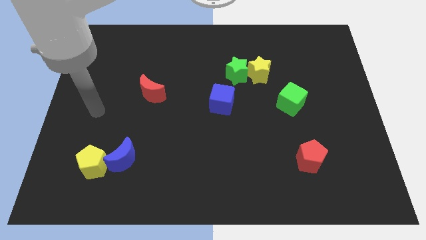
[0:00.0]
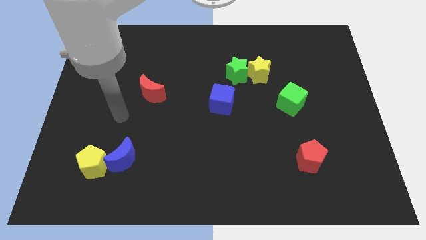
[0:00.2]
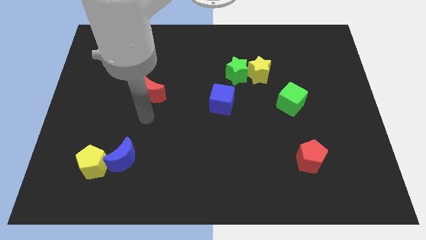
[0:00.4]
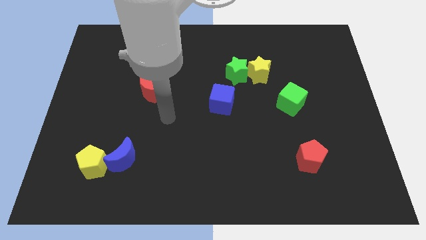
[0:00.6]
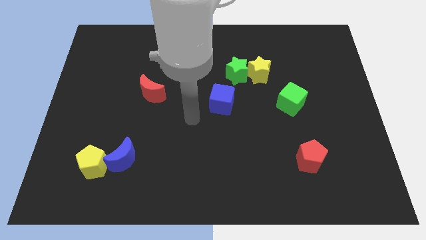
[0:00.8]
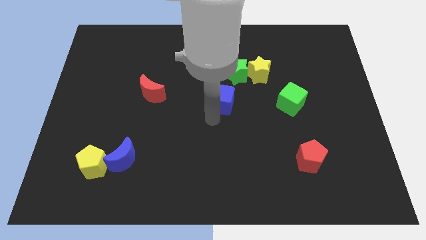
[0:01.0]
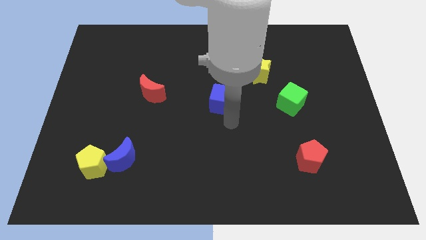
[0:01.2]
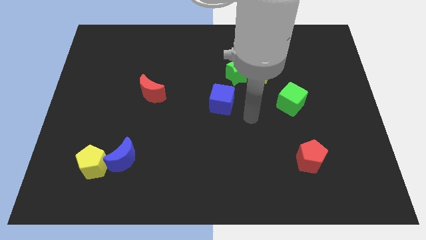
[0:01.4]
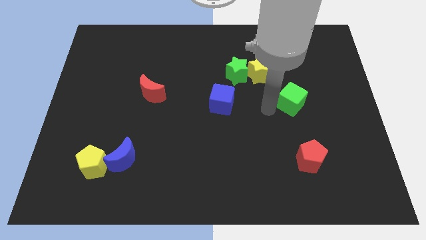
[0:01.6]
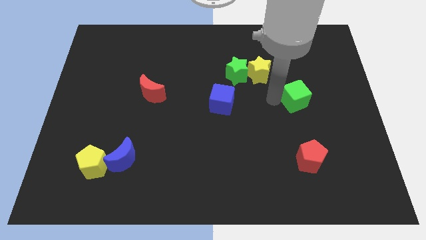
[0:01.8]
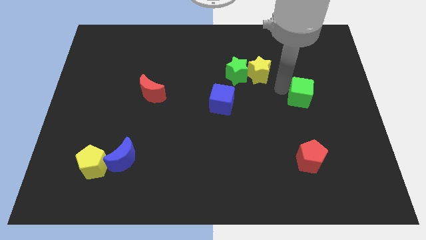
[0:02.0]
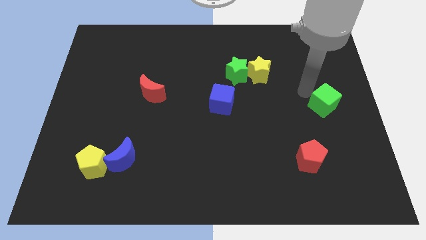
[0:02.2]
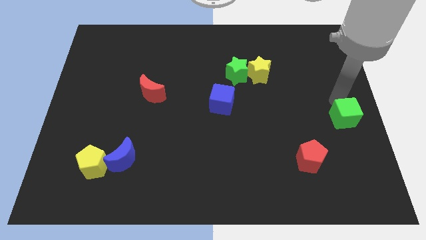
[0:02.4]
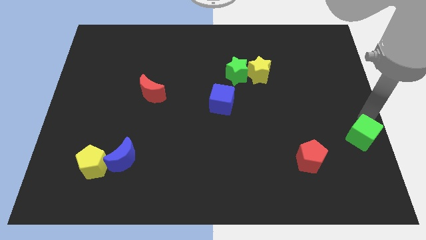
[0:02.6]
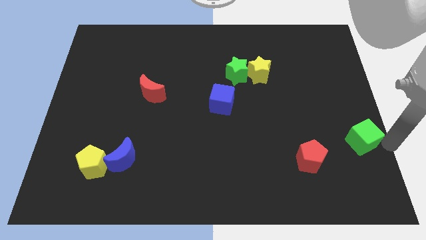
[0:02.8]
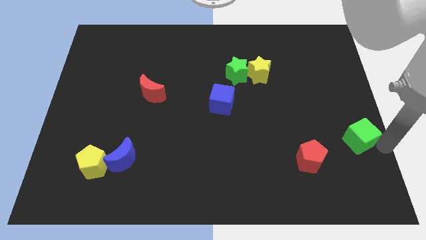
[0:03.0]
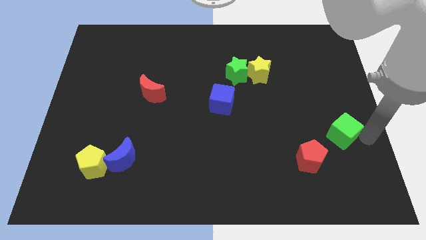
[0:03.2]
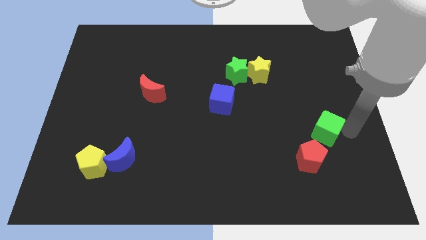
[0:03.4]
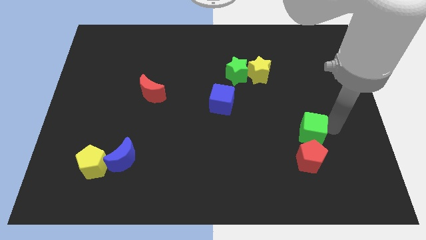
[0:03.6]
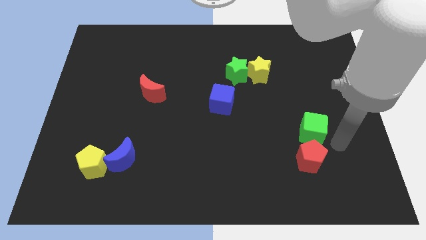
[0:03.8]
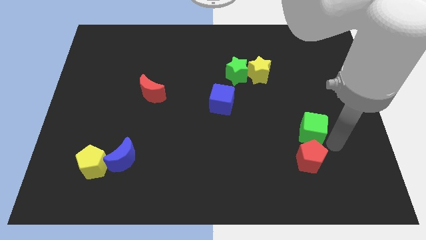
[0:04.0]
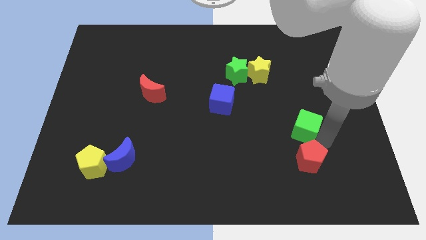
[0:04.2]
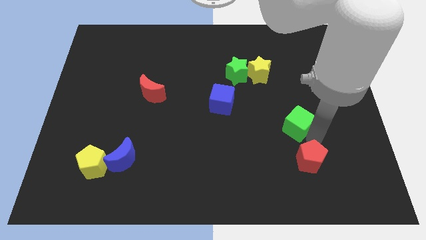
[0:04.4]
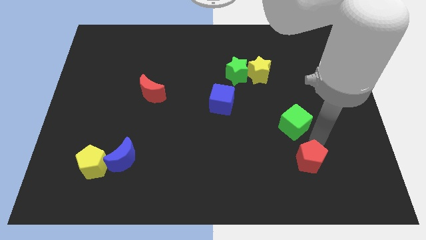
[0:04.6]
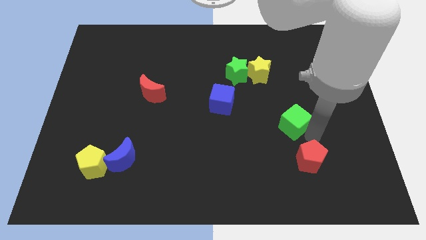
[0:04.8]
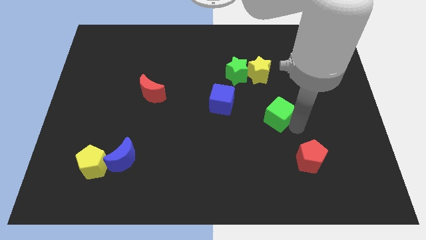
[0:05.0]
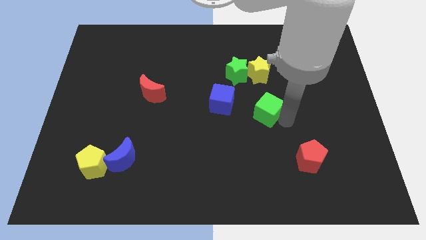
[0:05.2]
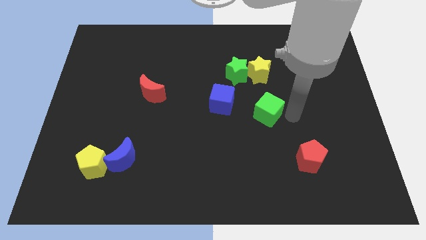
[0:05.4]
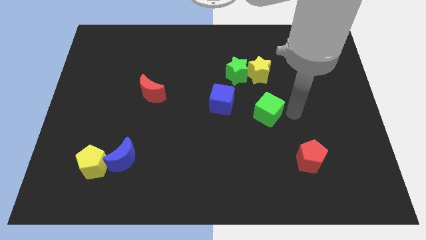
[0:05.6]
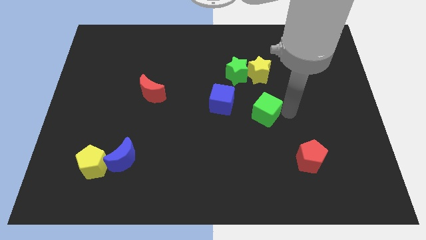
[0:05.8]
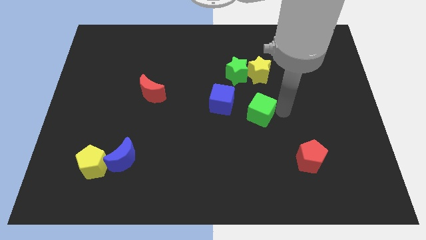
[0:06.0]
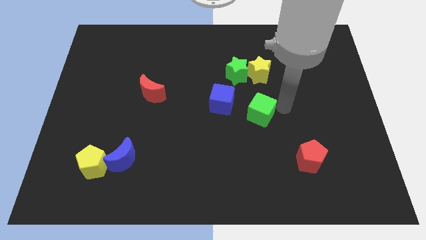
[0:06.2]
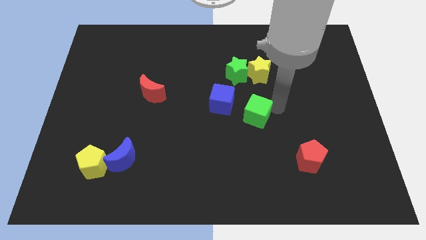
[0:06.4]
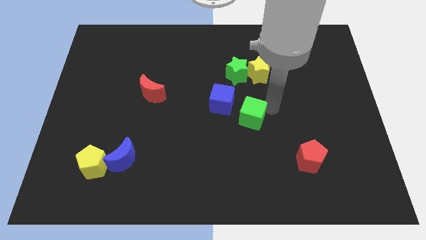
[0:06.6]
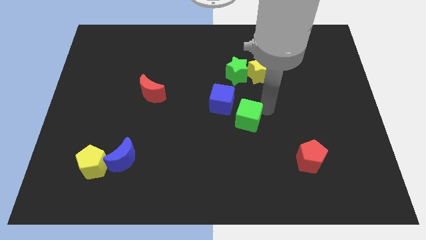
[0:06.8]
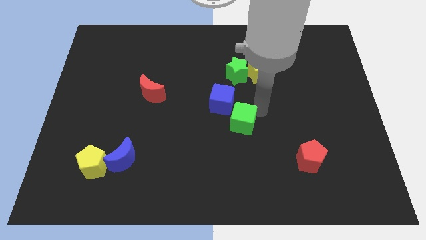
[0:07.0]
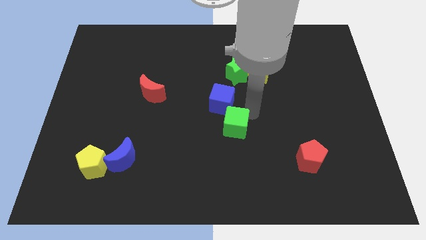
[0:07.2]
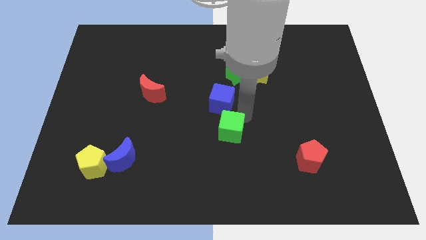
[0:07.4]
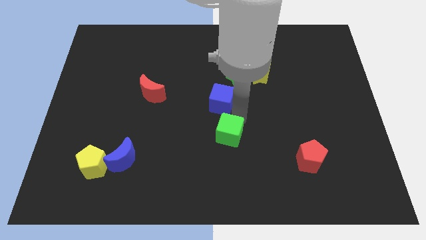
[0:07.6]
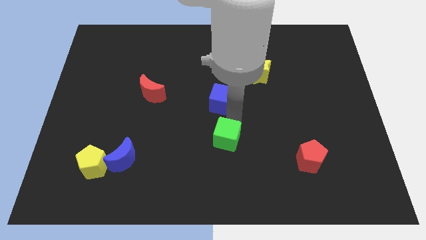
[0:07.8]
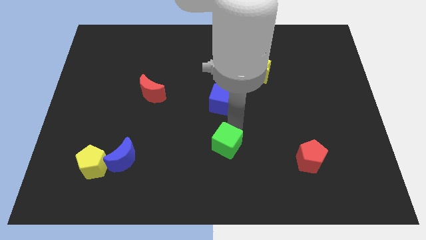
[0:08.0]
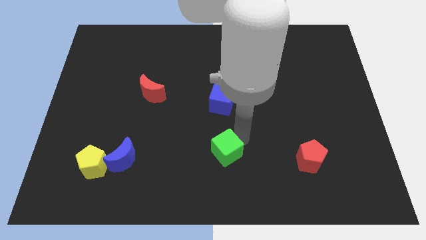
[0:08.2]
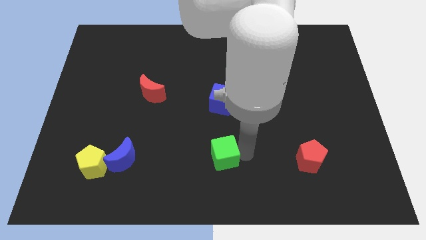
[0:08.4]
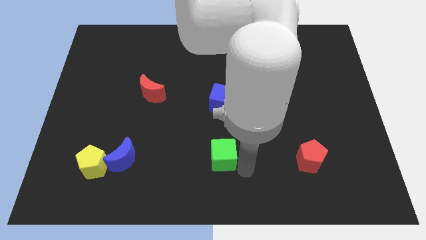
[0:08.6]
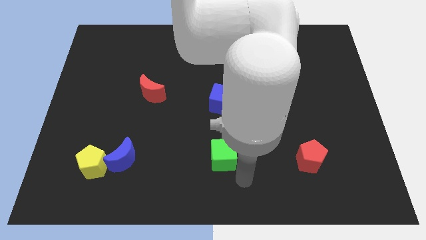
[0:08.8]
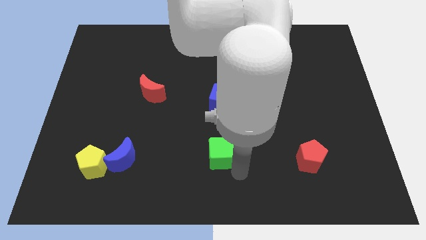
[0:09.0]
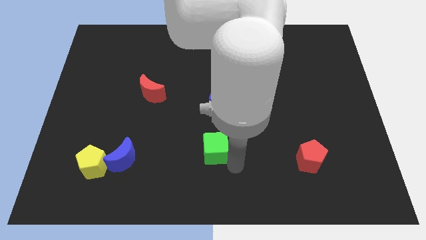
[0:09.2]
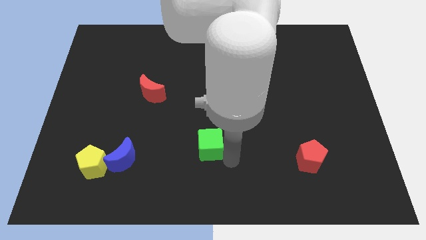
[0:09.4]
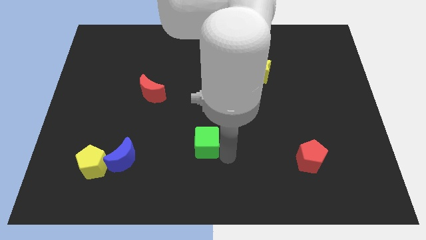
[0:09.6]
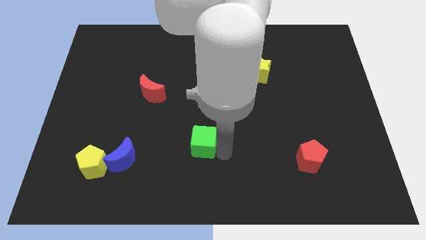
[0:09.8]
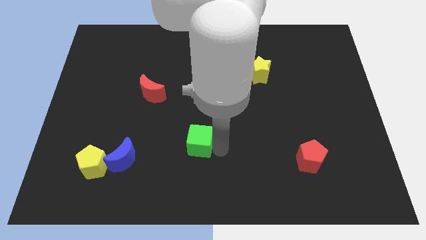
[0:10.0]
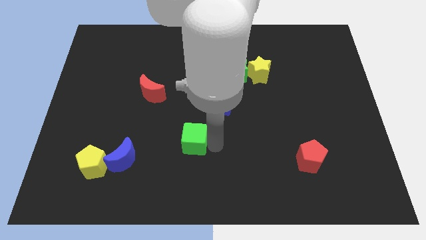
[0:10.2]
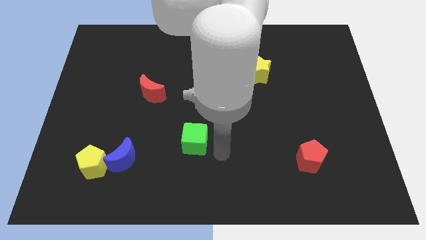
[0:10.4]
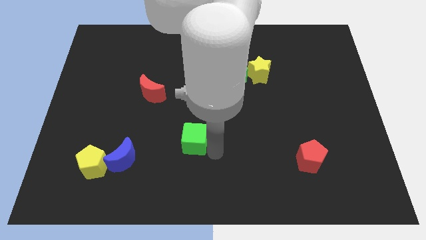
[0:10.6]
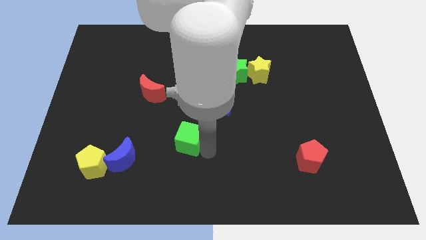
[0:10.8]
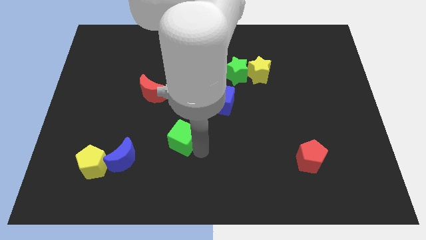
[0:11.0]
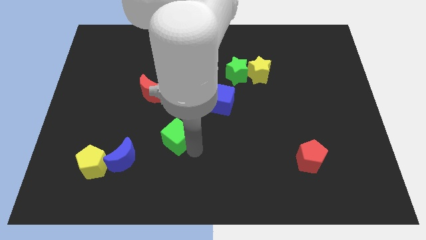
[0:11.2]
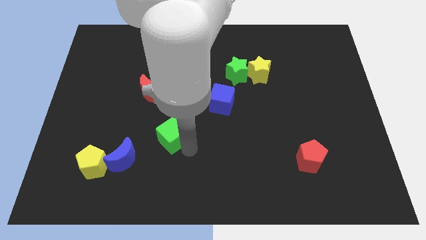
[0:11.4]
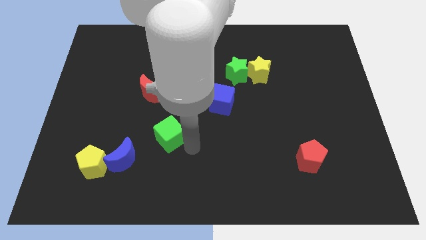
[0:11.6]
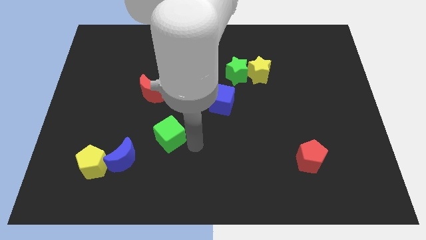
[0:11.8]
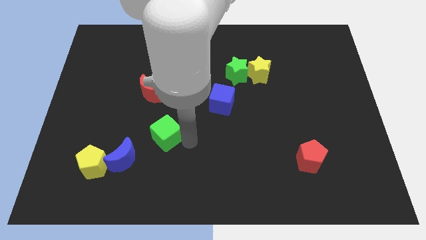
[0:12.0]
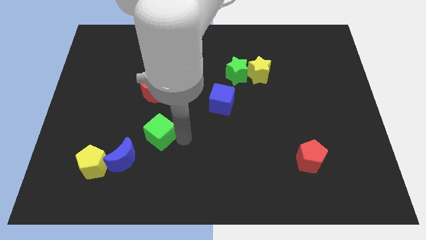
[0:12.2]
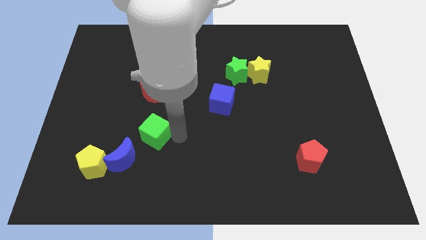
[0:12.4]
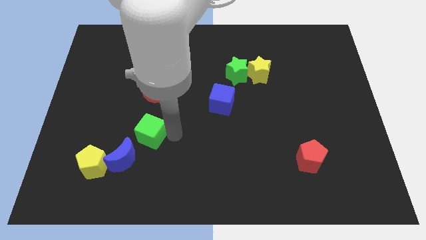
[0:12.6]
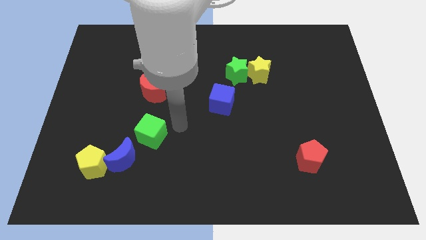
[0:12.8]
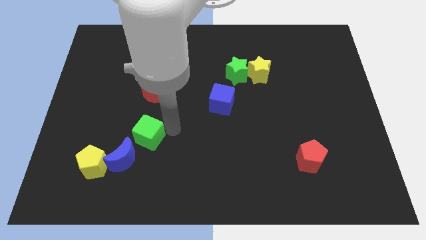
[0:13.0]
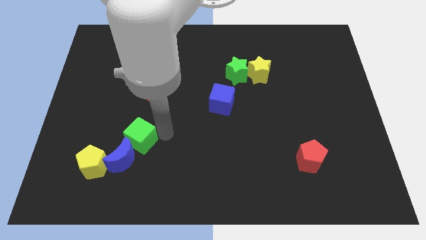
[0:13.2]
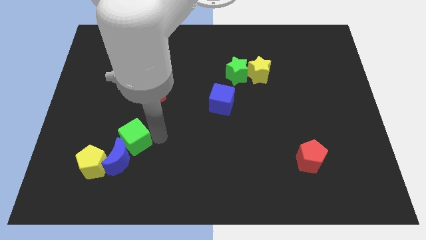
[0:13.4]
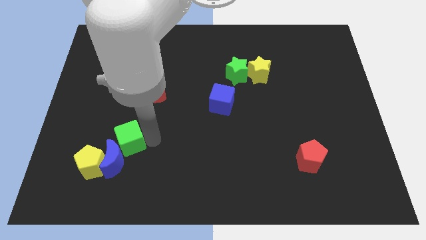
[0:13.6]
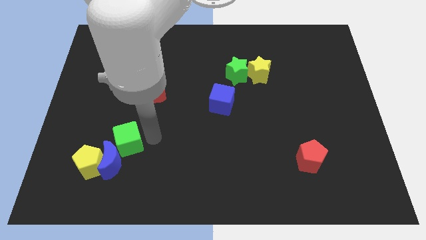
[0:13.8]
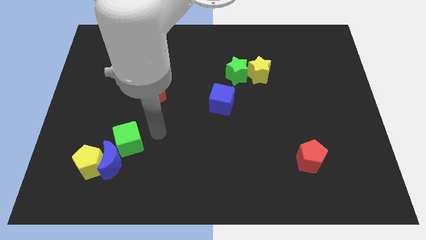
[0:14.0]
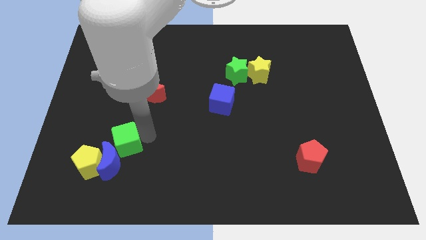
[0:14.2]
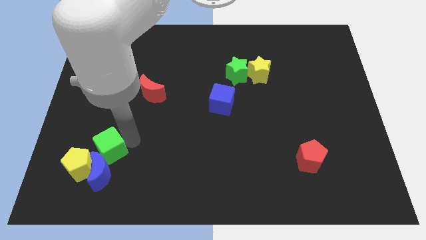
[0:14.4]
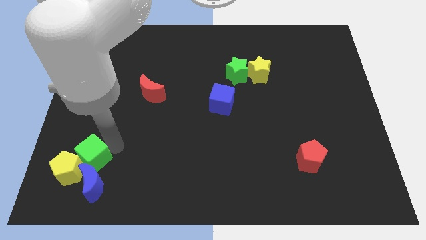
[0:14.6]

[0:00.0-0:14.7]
slide the green cube next to the yellow pentagon

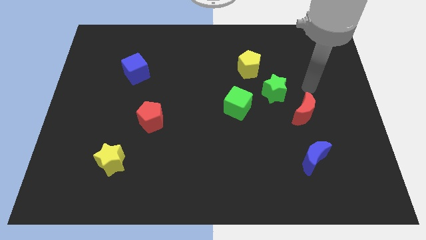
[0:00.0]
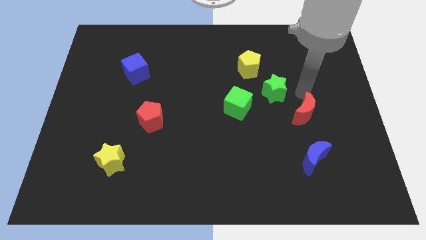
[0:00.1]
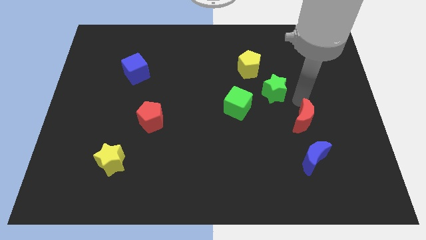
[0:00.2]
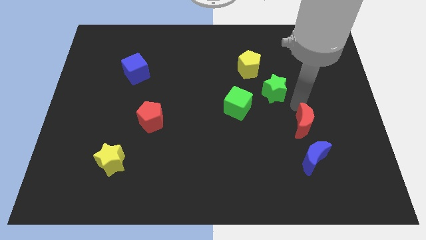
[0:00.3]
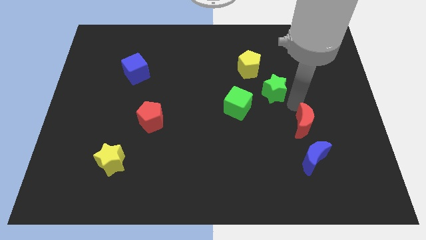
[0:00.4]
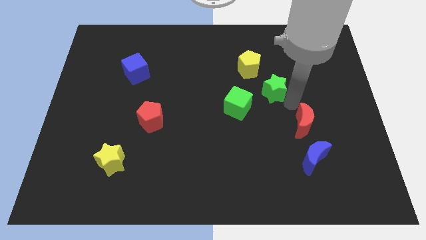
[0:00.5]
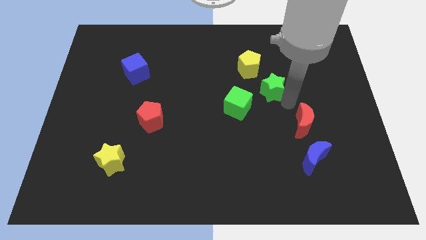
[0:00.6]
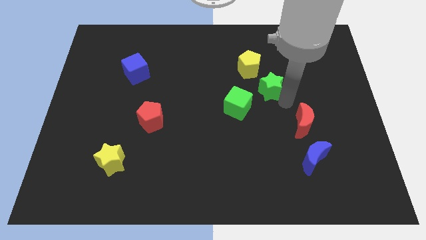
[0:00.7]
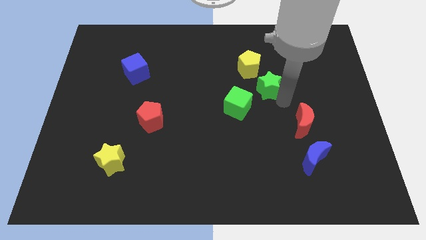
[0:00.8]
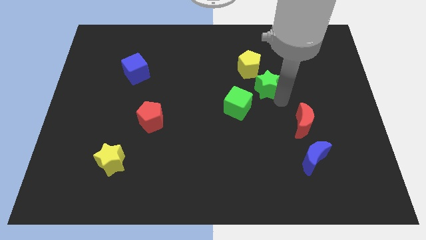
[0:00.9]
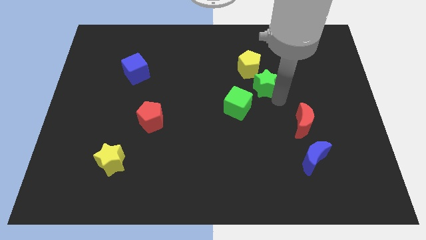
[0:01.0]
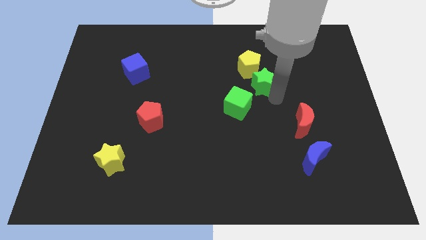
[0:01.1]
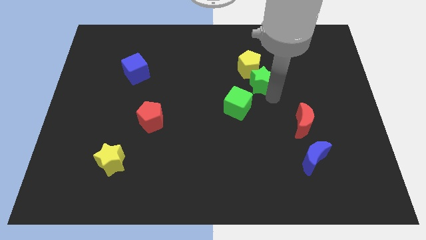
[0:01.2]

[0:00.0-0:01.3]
move the green star next to the yellow pentagon
